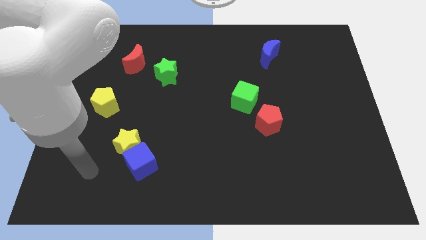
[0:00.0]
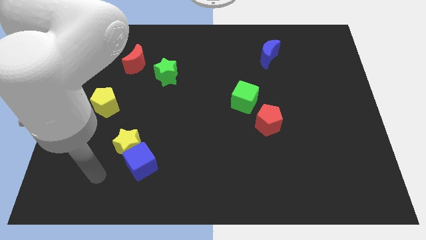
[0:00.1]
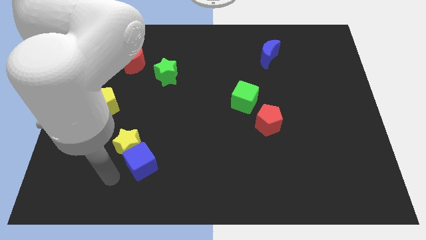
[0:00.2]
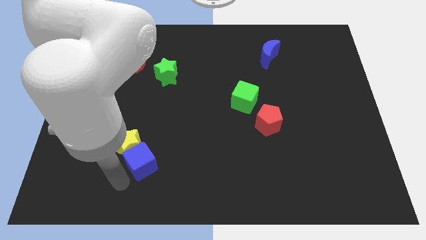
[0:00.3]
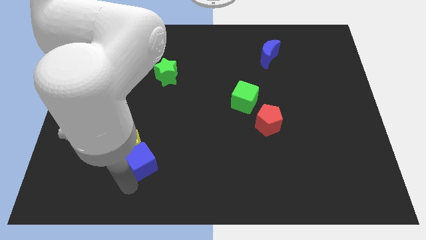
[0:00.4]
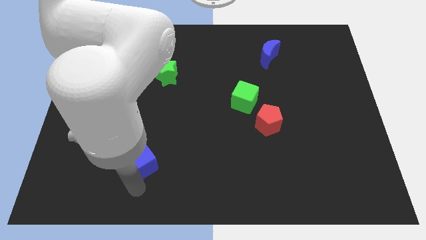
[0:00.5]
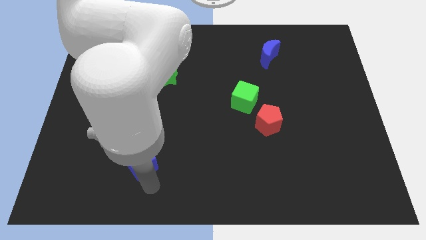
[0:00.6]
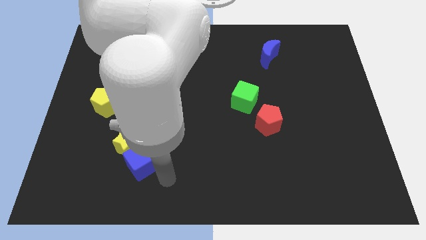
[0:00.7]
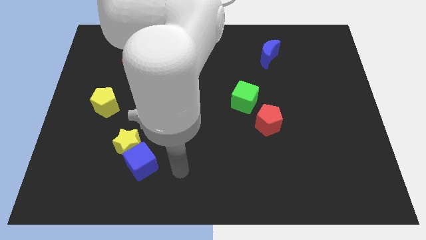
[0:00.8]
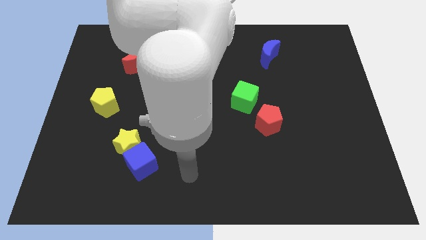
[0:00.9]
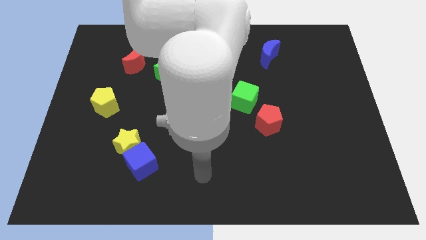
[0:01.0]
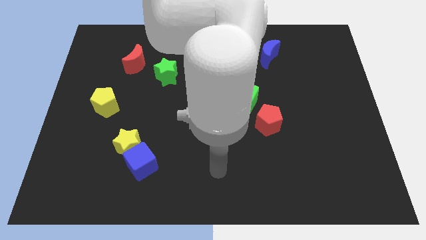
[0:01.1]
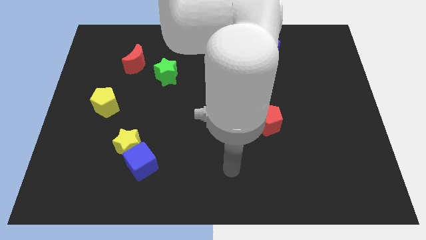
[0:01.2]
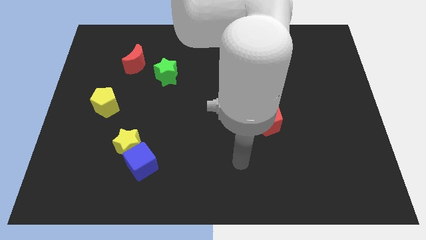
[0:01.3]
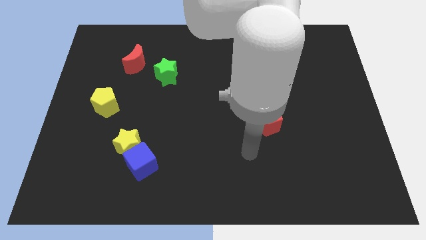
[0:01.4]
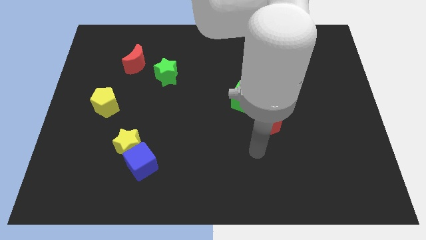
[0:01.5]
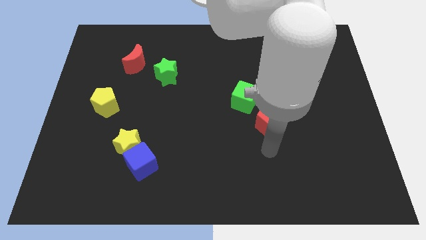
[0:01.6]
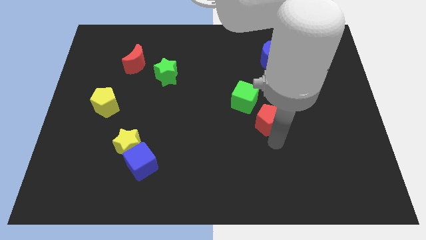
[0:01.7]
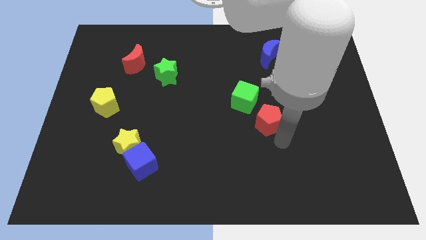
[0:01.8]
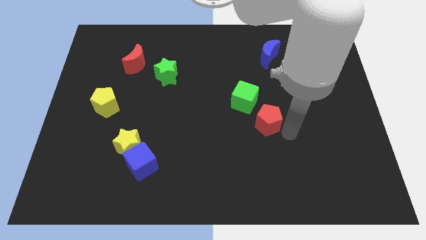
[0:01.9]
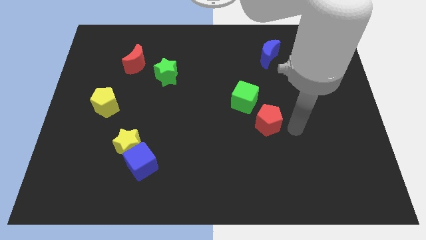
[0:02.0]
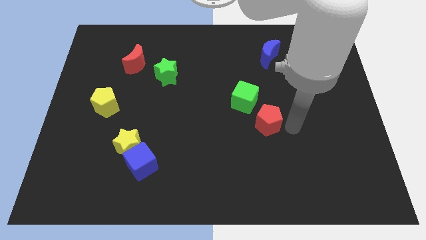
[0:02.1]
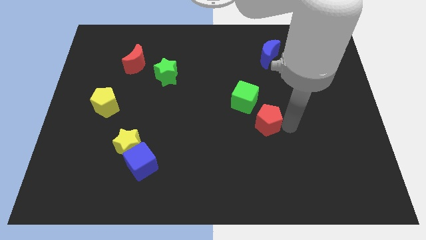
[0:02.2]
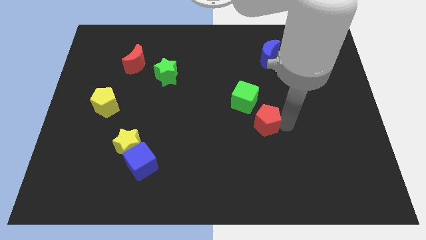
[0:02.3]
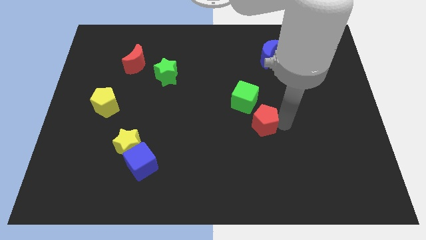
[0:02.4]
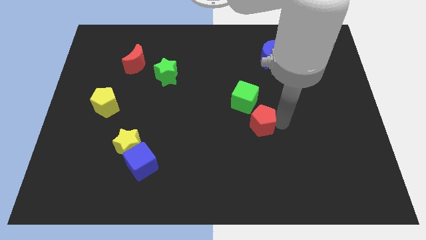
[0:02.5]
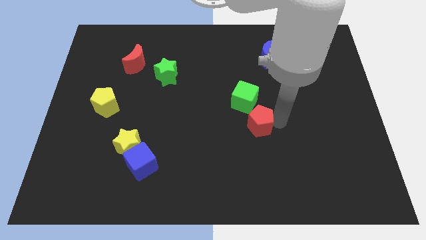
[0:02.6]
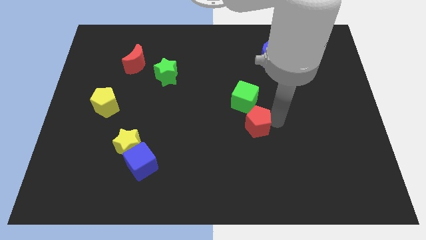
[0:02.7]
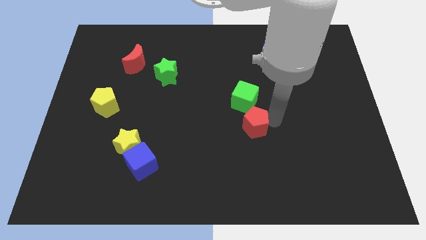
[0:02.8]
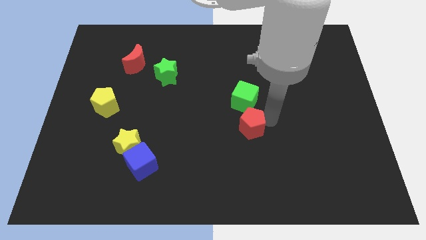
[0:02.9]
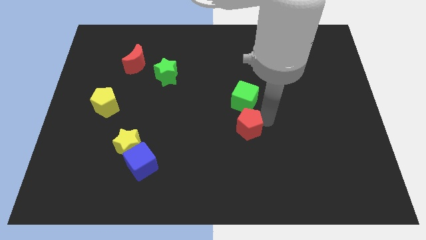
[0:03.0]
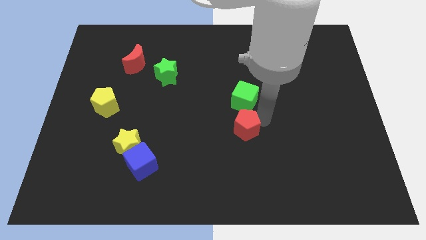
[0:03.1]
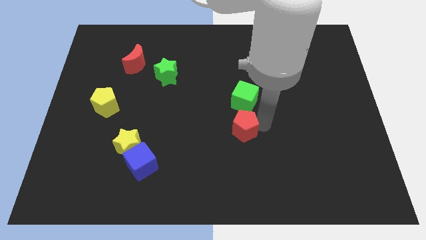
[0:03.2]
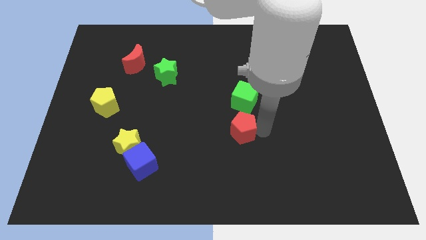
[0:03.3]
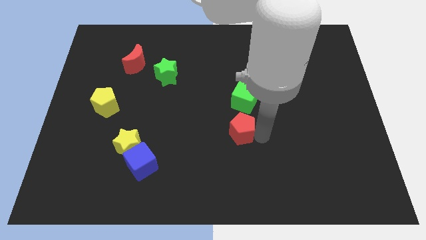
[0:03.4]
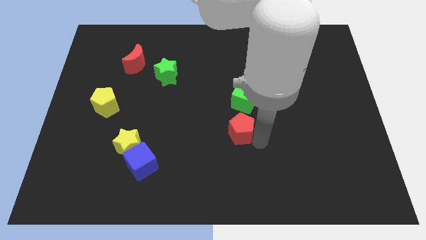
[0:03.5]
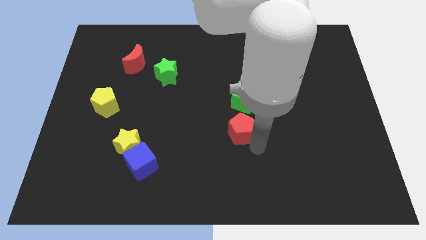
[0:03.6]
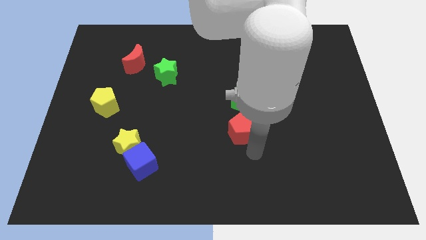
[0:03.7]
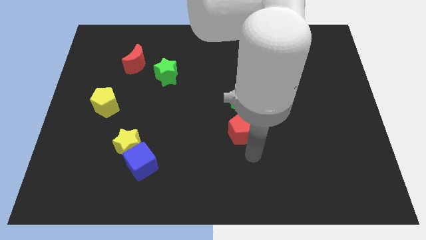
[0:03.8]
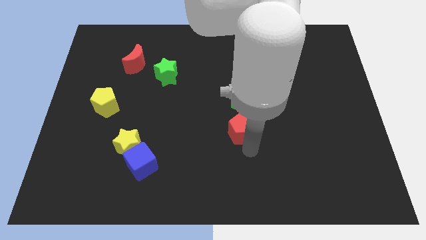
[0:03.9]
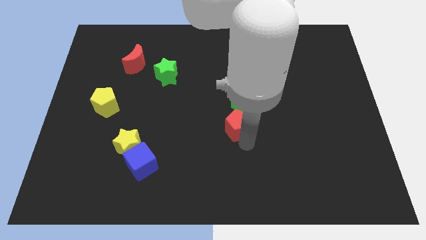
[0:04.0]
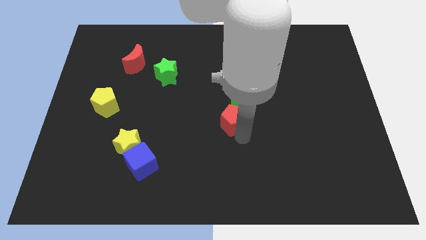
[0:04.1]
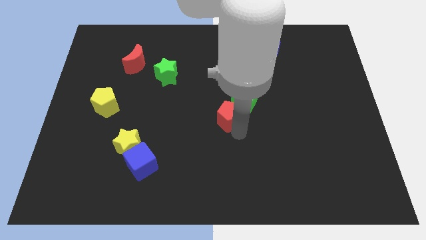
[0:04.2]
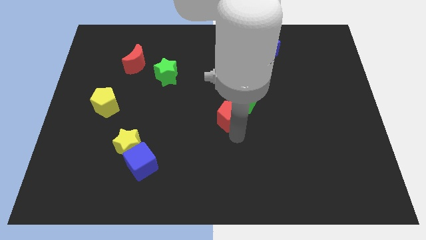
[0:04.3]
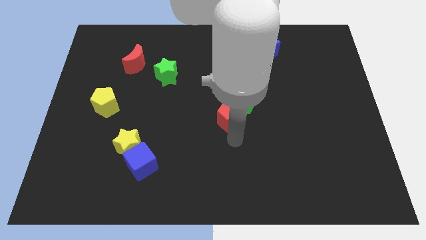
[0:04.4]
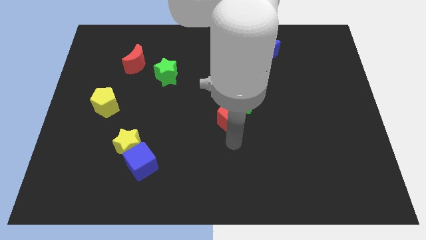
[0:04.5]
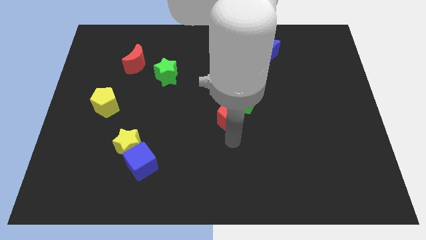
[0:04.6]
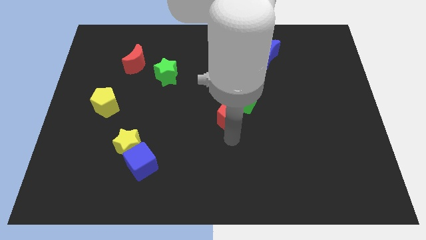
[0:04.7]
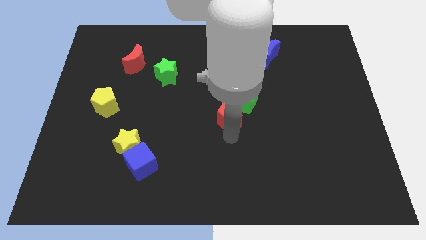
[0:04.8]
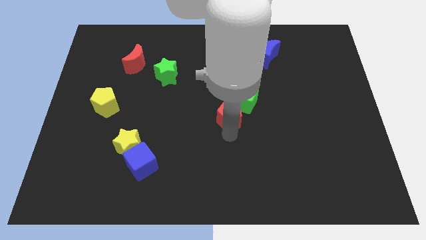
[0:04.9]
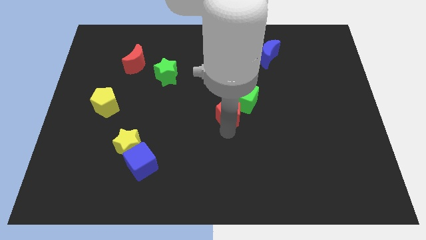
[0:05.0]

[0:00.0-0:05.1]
slide the red pentagon up and then to the left slightly

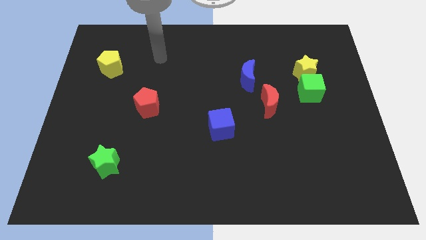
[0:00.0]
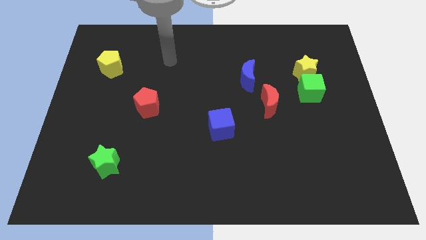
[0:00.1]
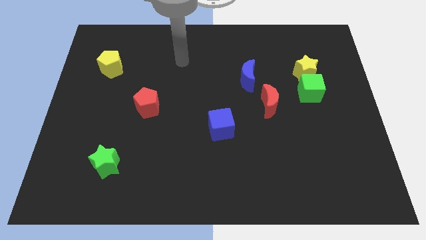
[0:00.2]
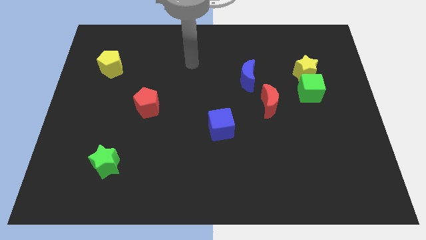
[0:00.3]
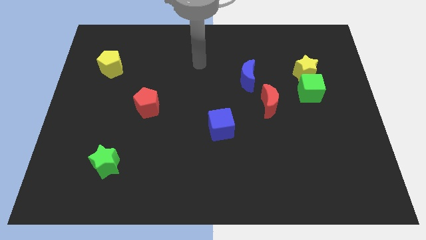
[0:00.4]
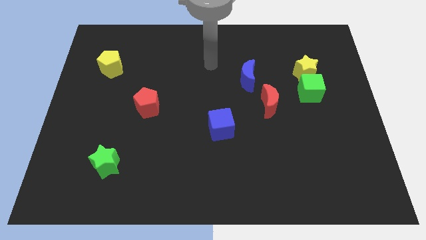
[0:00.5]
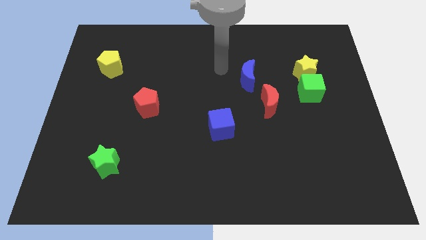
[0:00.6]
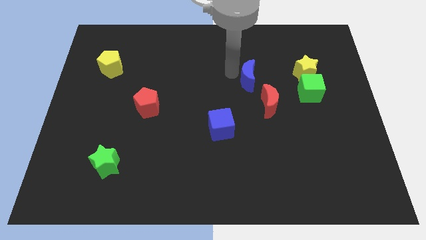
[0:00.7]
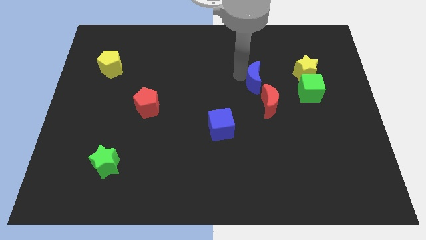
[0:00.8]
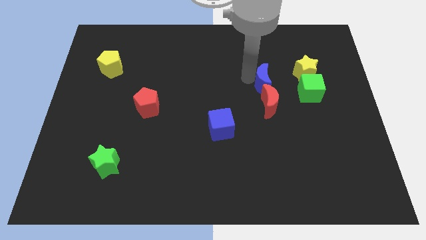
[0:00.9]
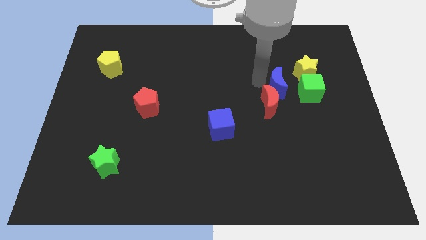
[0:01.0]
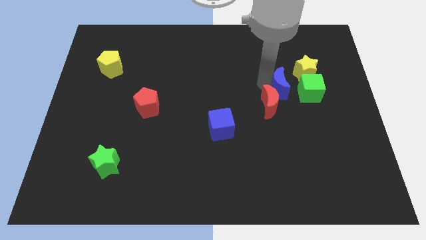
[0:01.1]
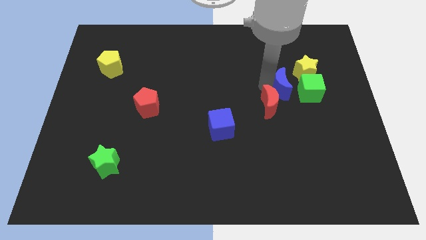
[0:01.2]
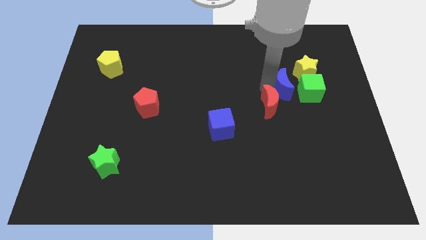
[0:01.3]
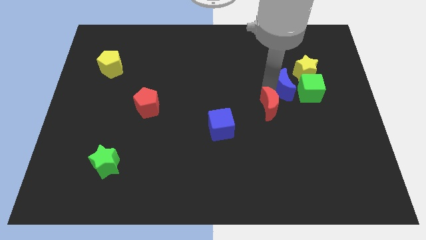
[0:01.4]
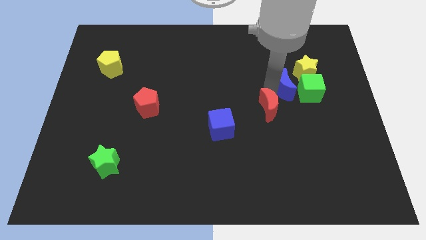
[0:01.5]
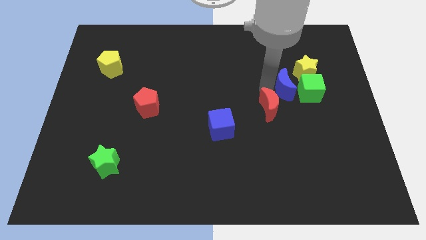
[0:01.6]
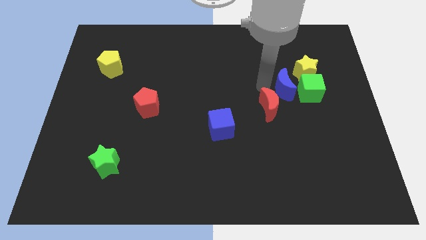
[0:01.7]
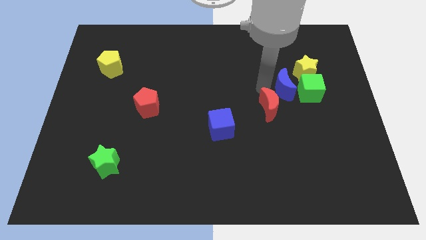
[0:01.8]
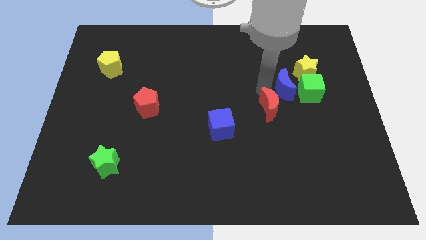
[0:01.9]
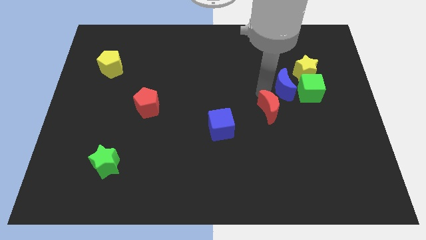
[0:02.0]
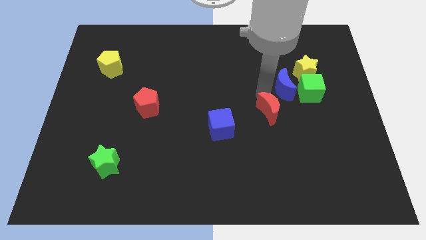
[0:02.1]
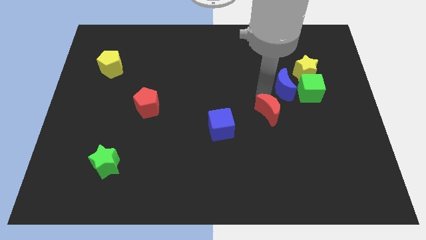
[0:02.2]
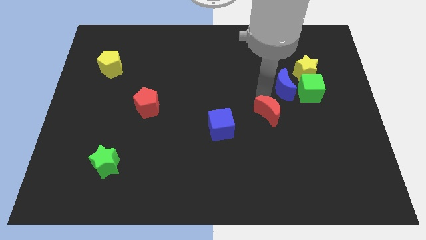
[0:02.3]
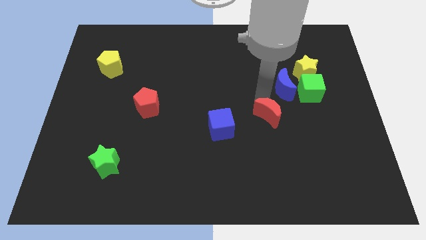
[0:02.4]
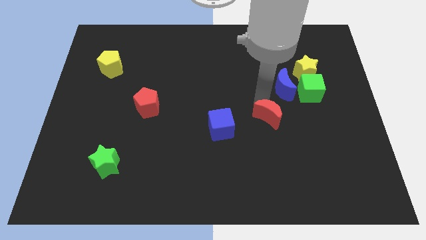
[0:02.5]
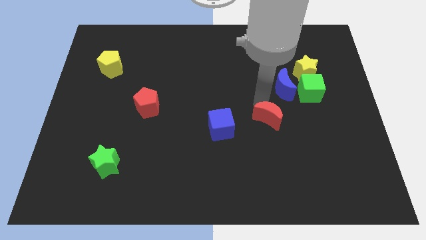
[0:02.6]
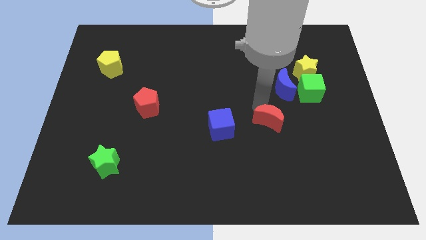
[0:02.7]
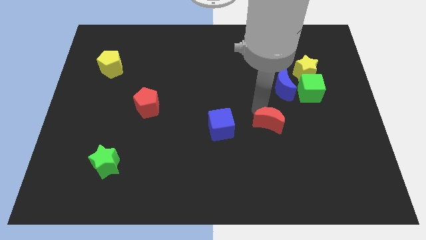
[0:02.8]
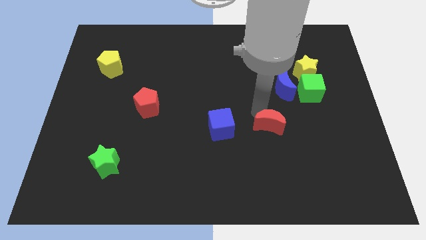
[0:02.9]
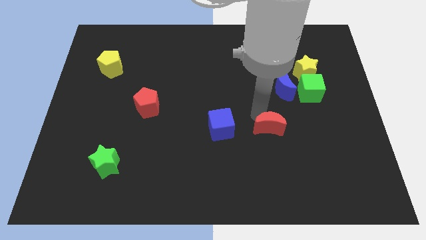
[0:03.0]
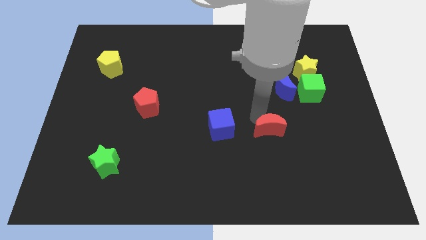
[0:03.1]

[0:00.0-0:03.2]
move the red moon somewhat downwards
